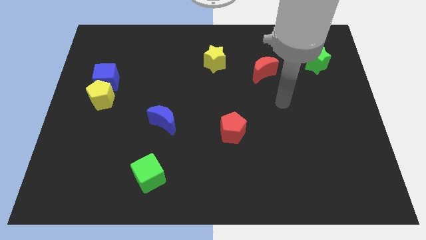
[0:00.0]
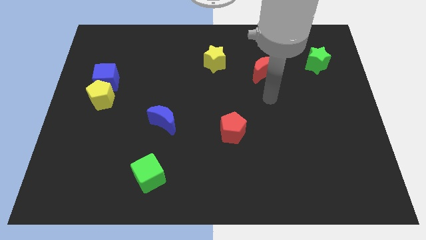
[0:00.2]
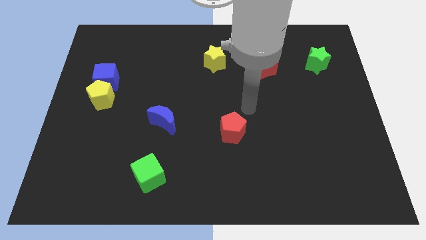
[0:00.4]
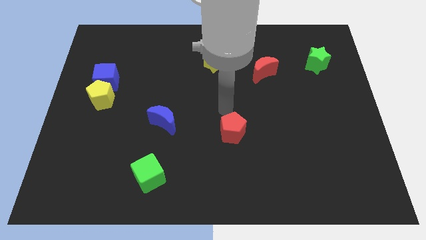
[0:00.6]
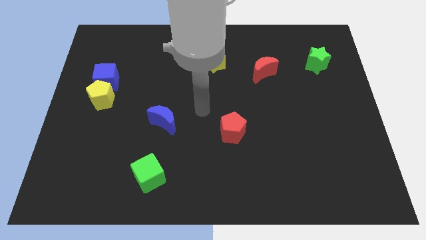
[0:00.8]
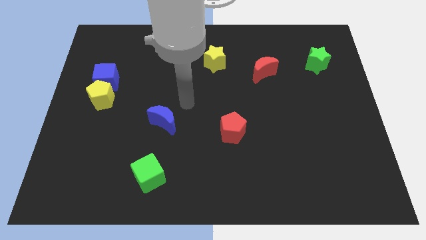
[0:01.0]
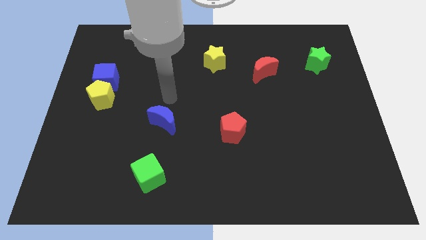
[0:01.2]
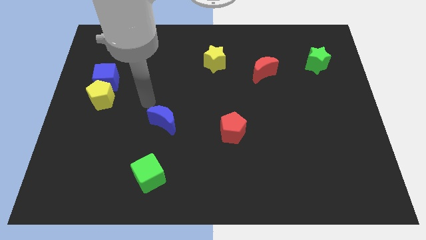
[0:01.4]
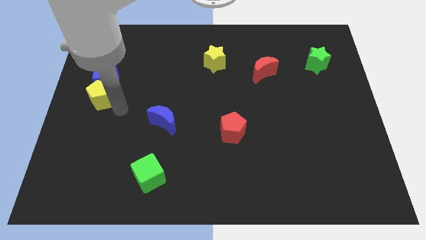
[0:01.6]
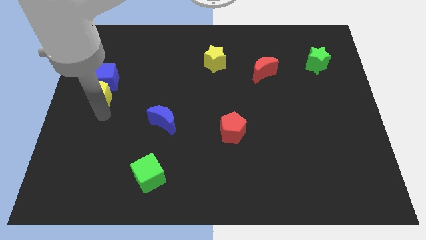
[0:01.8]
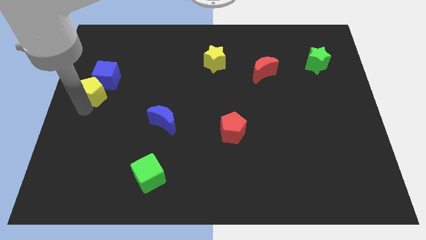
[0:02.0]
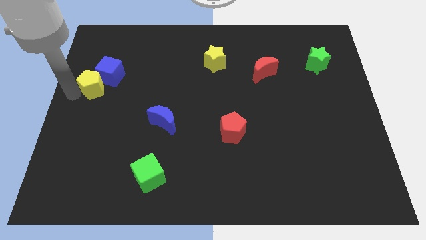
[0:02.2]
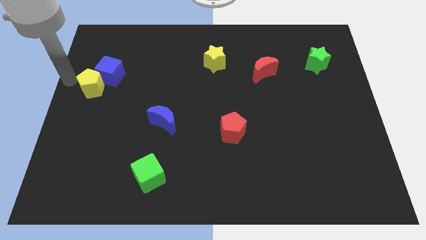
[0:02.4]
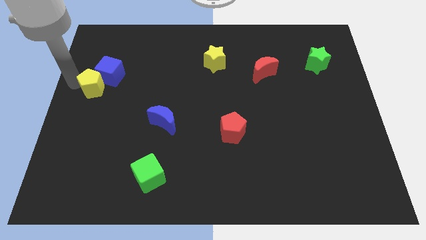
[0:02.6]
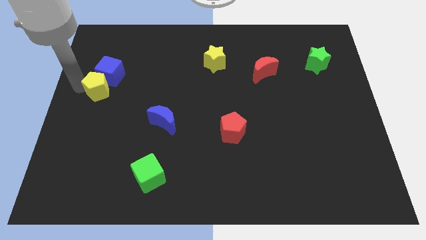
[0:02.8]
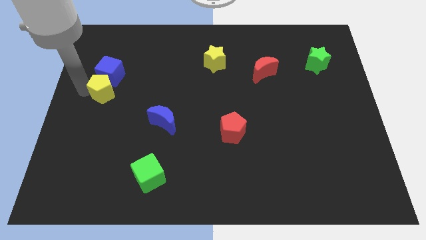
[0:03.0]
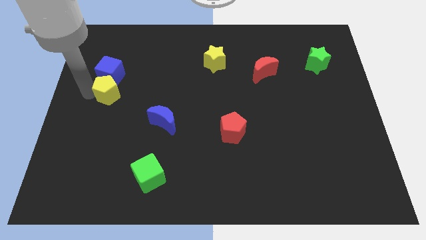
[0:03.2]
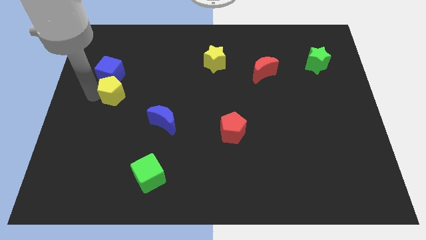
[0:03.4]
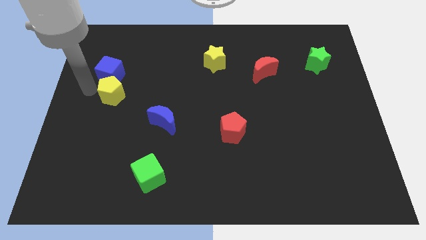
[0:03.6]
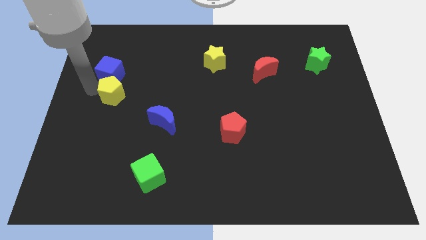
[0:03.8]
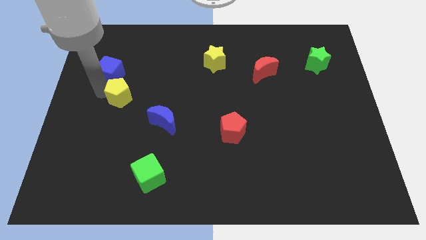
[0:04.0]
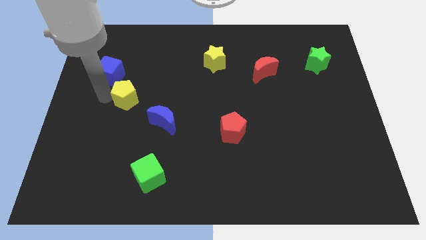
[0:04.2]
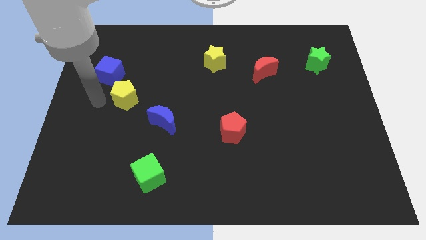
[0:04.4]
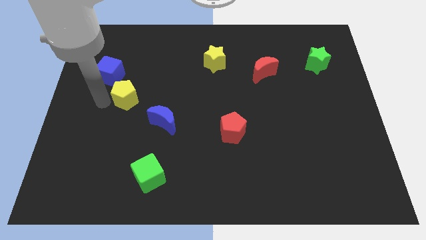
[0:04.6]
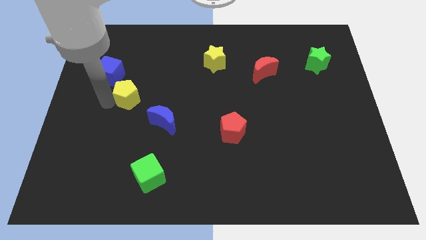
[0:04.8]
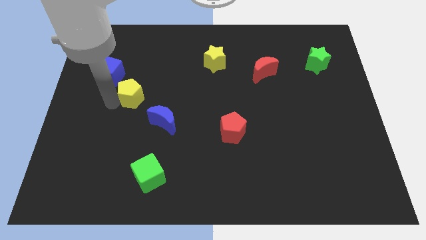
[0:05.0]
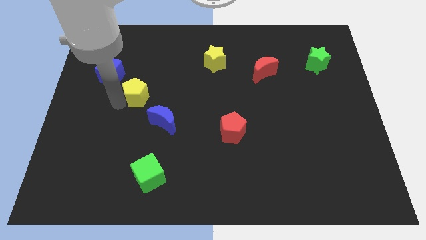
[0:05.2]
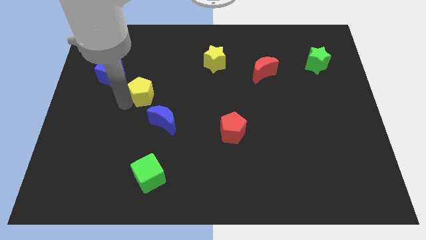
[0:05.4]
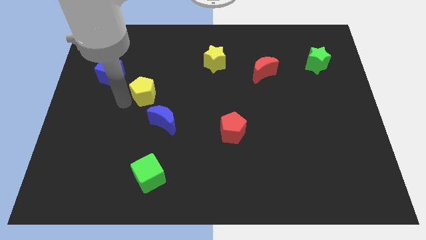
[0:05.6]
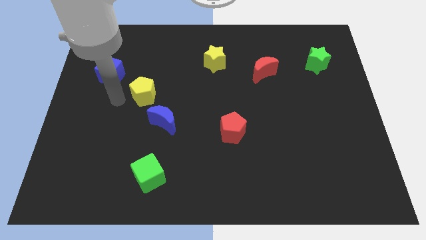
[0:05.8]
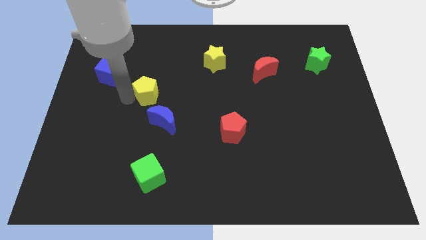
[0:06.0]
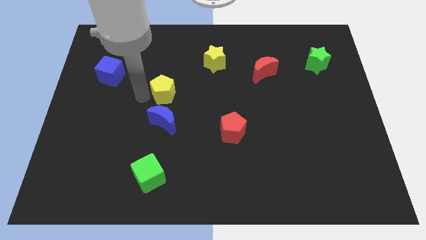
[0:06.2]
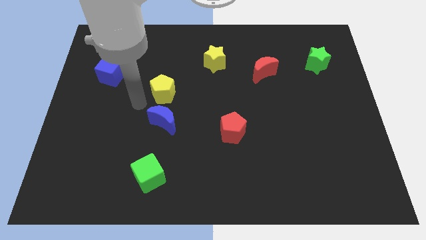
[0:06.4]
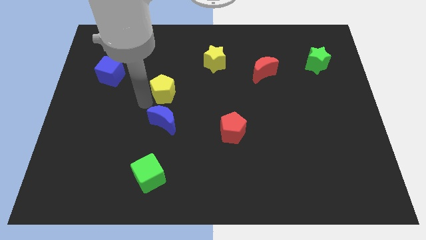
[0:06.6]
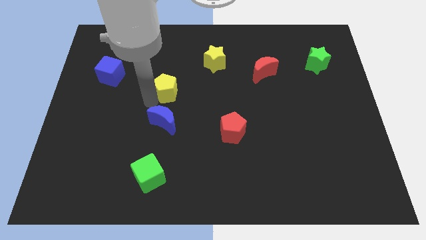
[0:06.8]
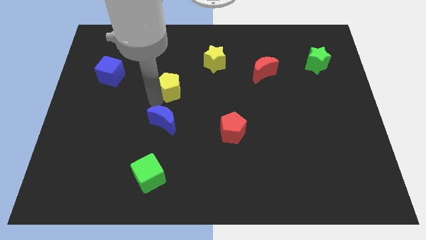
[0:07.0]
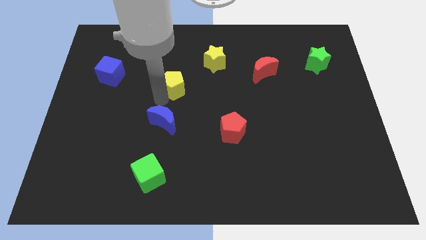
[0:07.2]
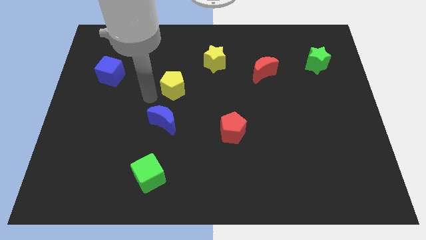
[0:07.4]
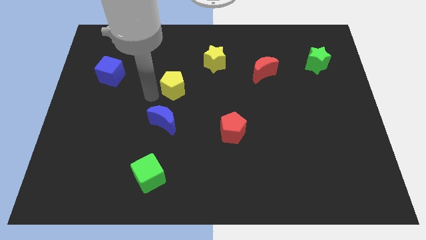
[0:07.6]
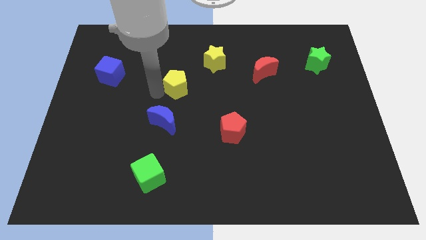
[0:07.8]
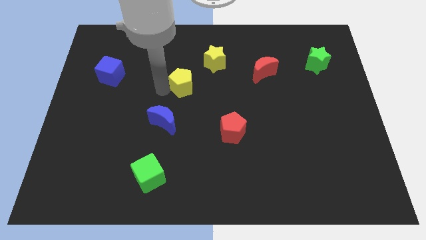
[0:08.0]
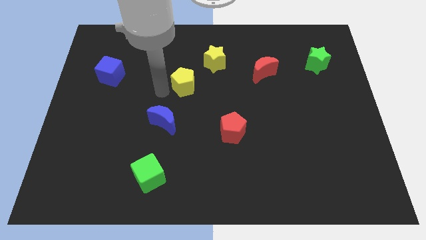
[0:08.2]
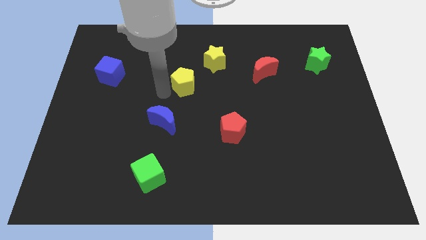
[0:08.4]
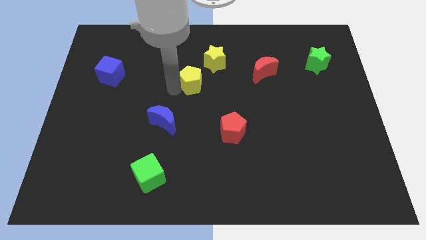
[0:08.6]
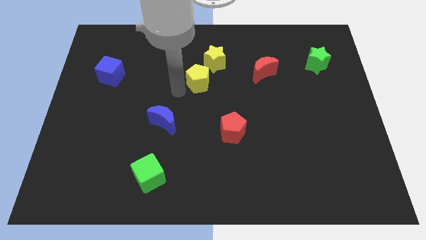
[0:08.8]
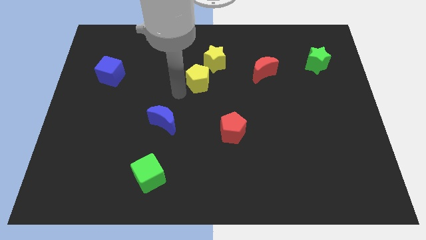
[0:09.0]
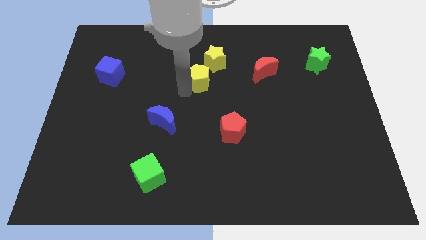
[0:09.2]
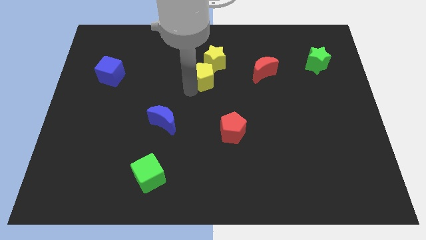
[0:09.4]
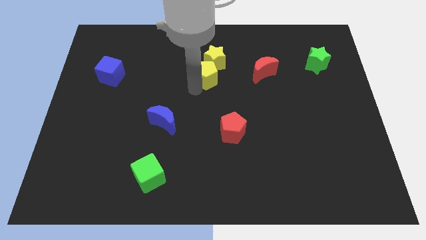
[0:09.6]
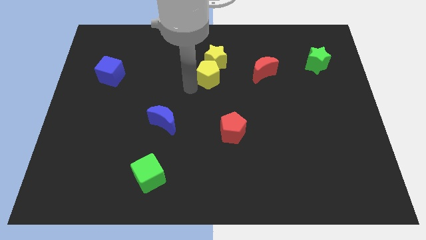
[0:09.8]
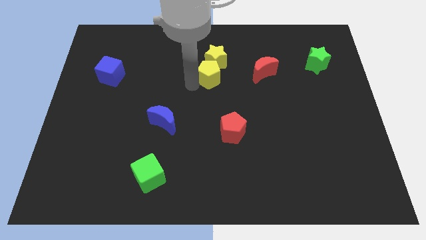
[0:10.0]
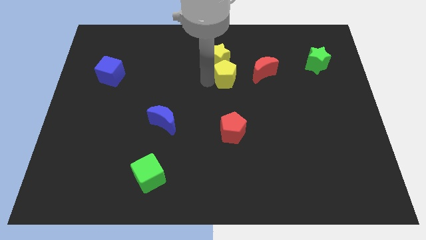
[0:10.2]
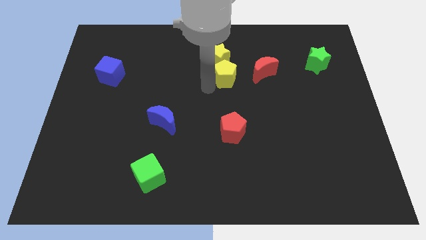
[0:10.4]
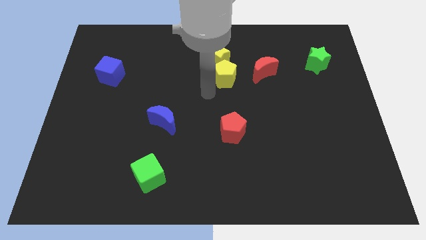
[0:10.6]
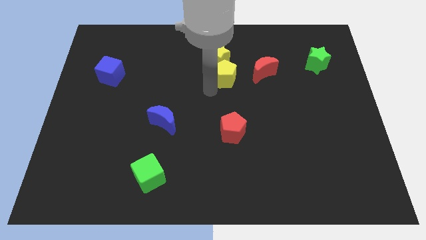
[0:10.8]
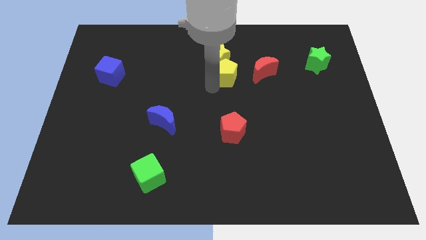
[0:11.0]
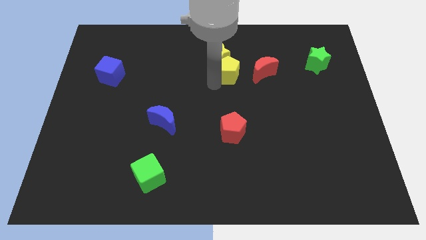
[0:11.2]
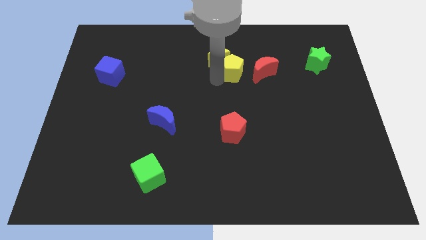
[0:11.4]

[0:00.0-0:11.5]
move the yellow pentagon to the right side of the yellow star

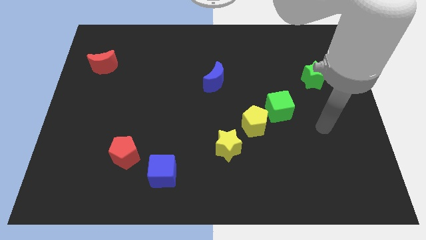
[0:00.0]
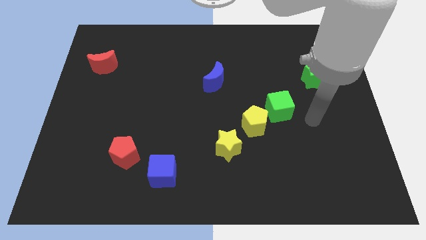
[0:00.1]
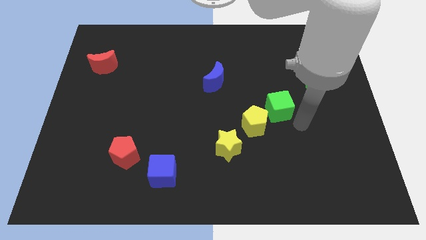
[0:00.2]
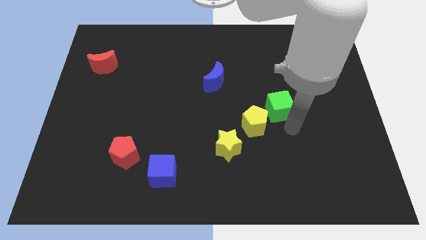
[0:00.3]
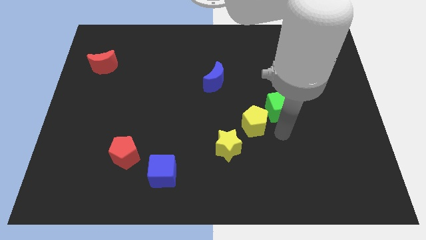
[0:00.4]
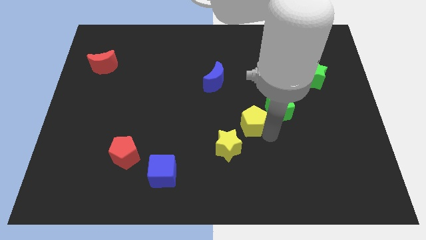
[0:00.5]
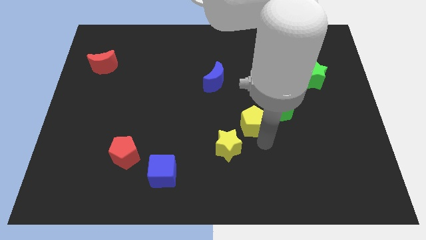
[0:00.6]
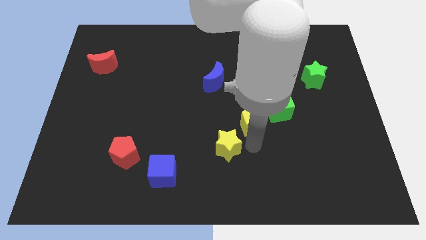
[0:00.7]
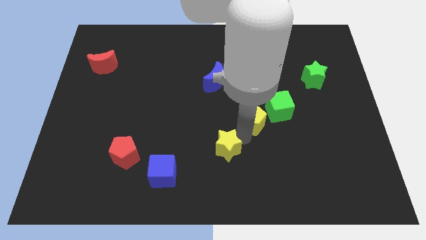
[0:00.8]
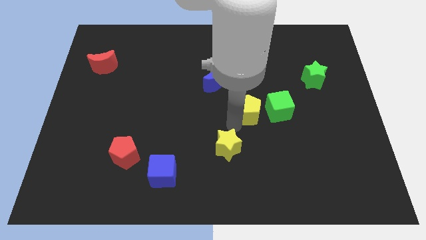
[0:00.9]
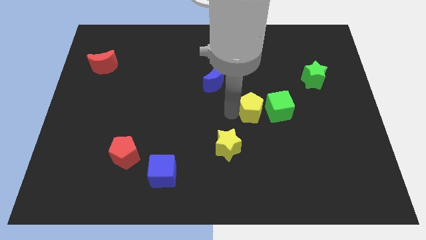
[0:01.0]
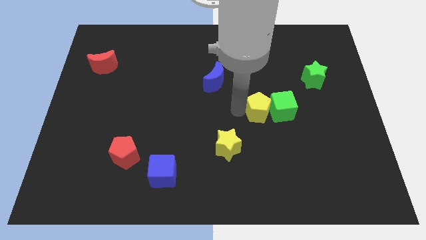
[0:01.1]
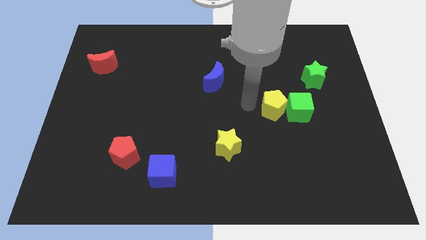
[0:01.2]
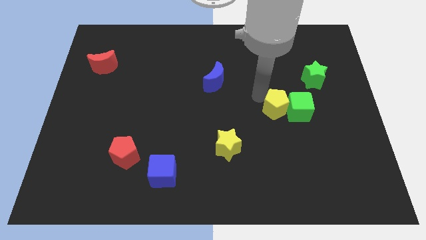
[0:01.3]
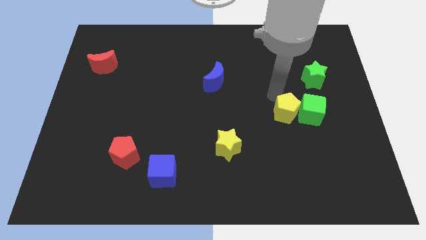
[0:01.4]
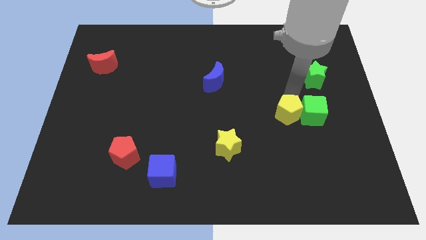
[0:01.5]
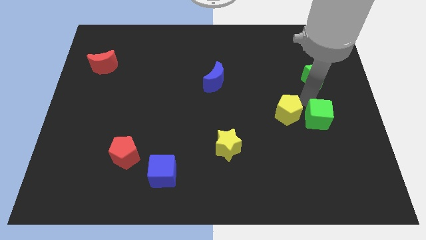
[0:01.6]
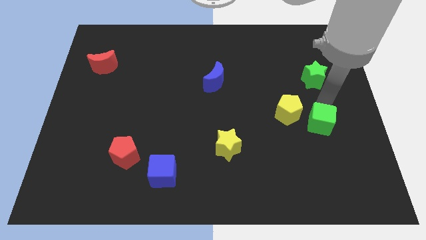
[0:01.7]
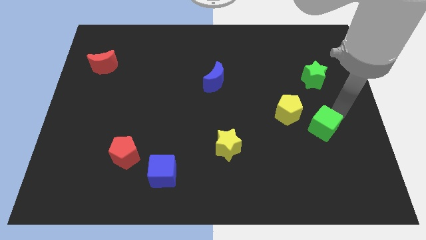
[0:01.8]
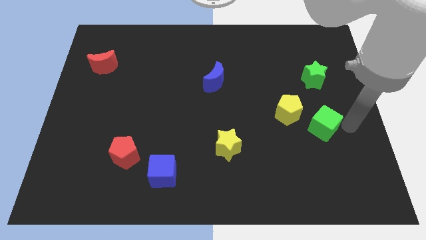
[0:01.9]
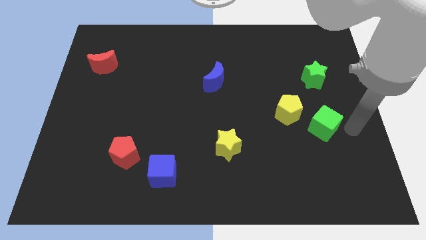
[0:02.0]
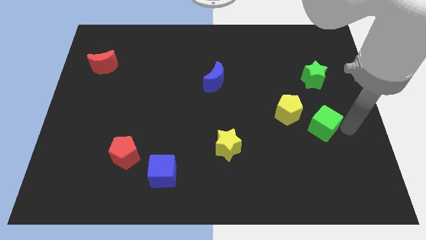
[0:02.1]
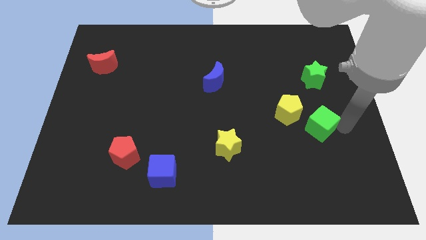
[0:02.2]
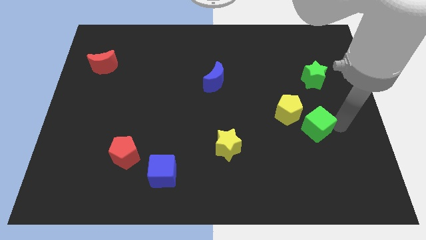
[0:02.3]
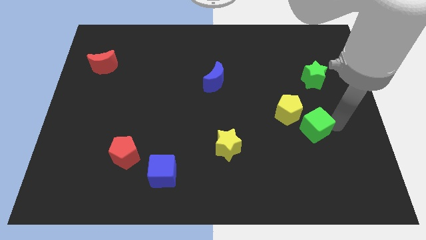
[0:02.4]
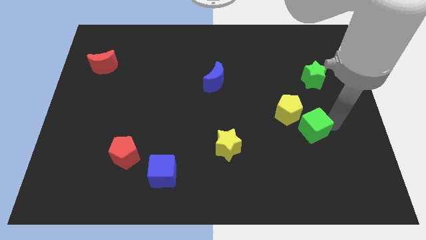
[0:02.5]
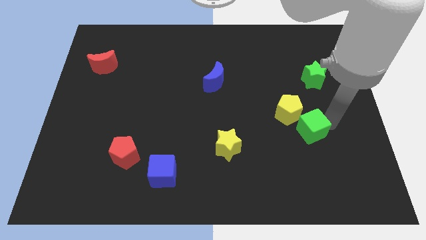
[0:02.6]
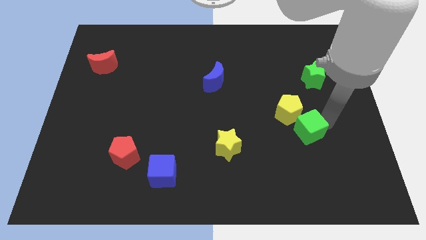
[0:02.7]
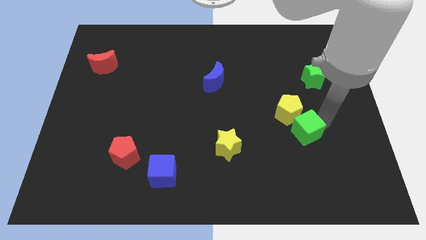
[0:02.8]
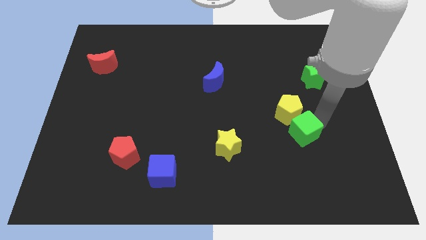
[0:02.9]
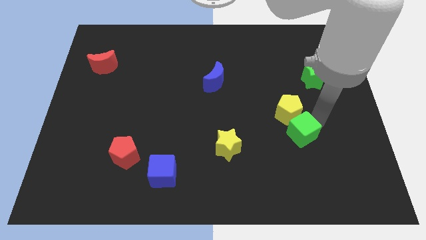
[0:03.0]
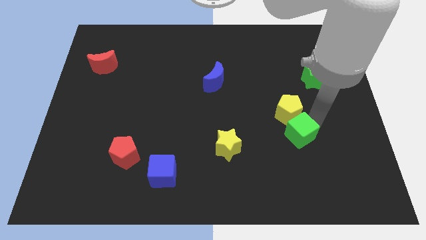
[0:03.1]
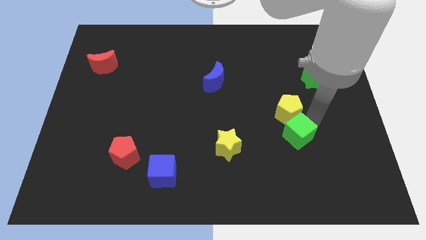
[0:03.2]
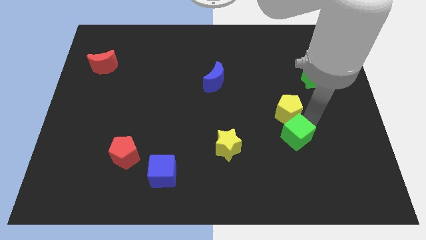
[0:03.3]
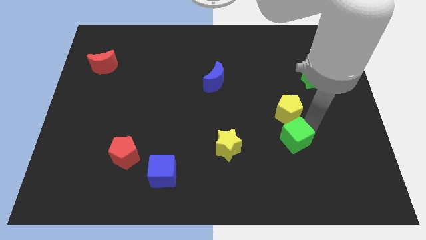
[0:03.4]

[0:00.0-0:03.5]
move the green cube to the right of the yellow star
